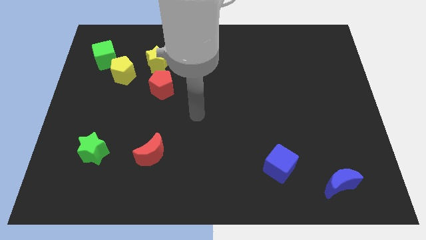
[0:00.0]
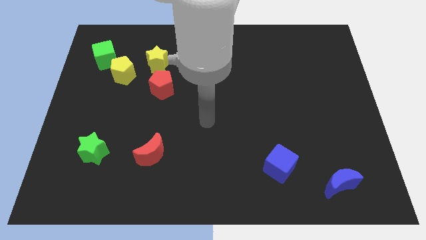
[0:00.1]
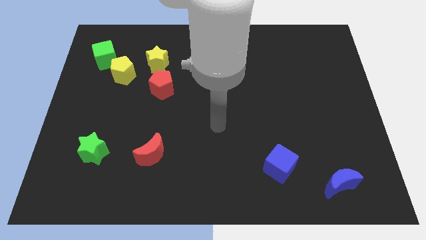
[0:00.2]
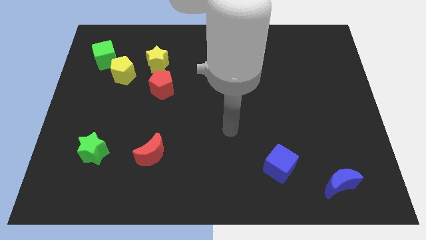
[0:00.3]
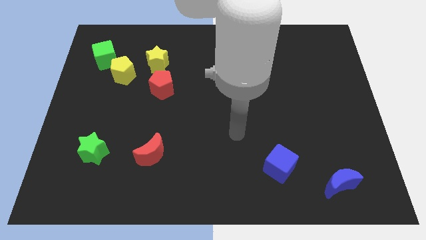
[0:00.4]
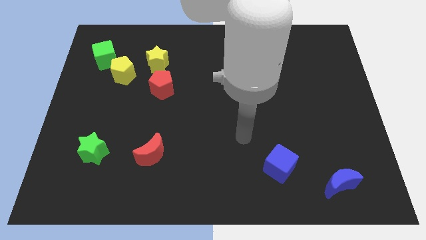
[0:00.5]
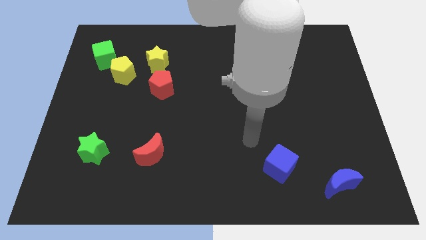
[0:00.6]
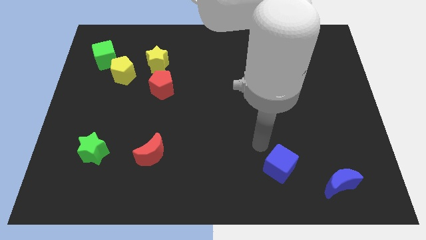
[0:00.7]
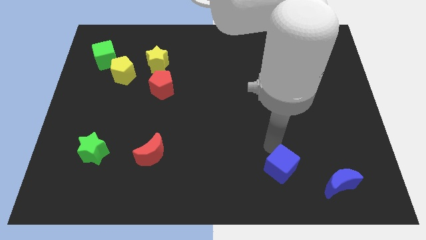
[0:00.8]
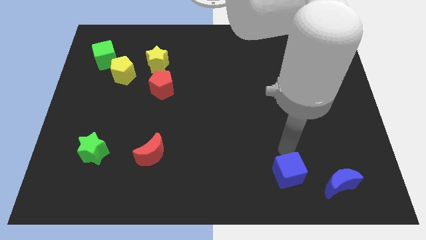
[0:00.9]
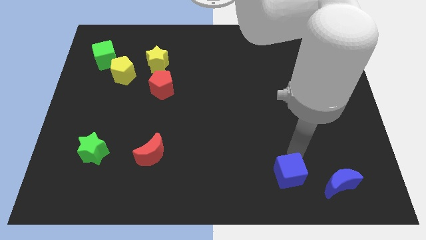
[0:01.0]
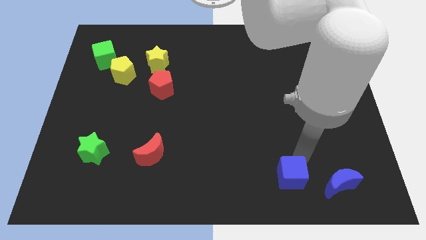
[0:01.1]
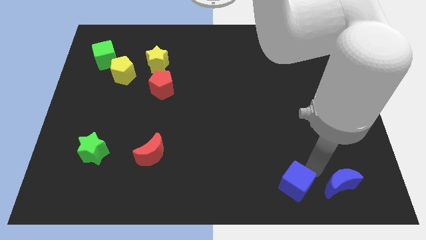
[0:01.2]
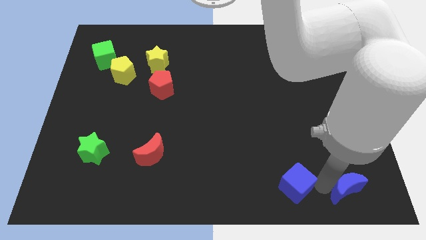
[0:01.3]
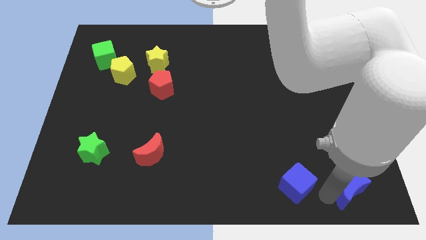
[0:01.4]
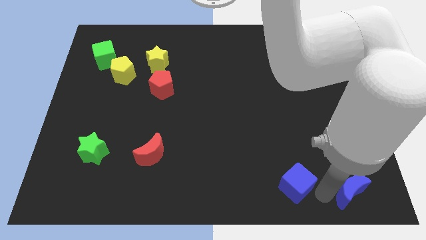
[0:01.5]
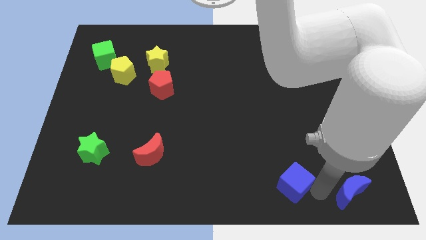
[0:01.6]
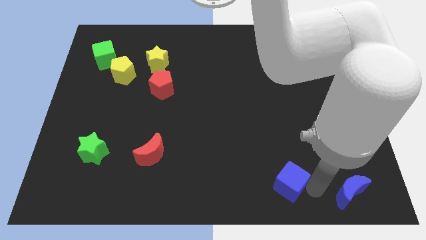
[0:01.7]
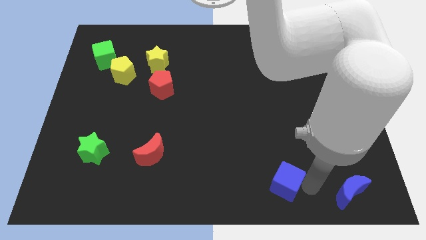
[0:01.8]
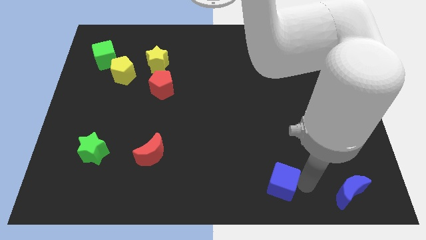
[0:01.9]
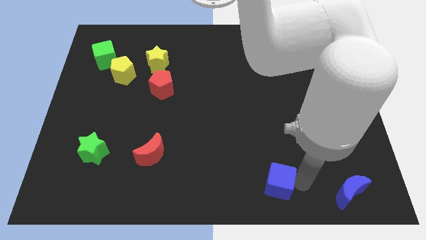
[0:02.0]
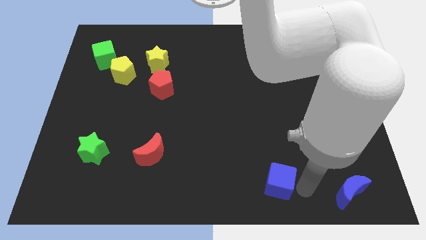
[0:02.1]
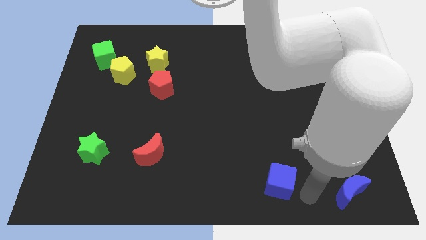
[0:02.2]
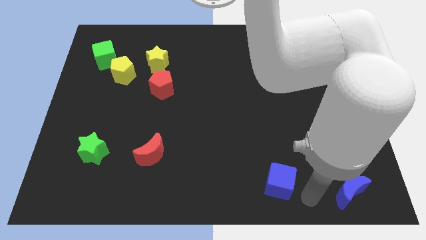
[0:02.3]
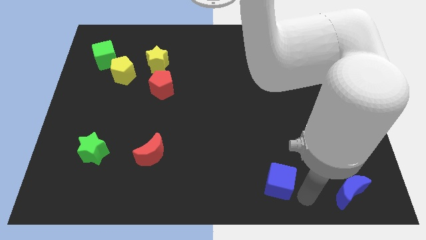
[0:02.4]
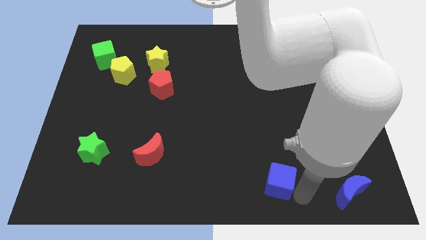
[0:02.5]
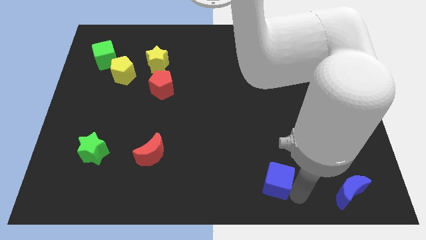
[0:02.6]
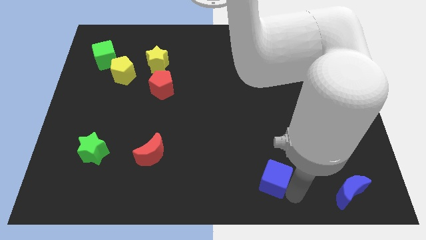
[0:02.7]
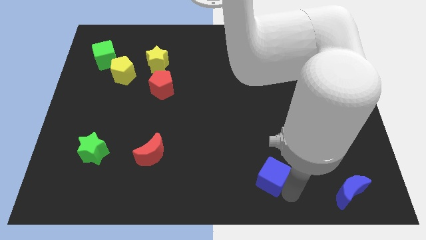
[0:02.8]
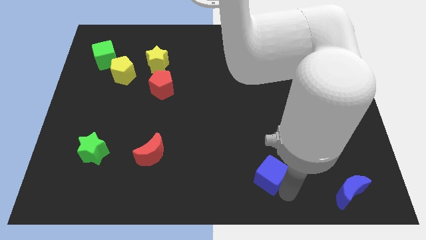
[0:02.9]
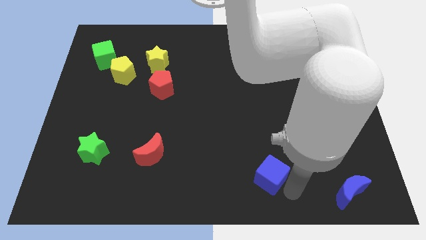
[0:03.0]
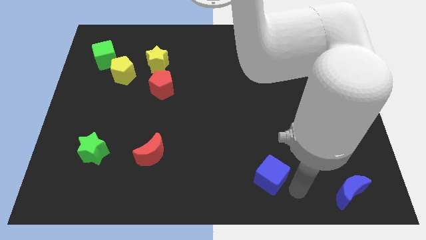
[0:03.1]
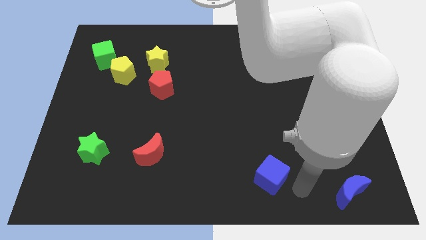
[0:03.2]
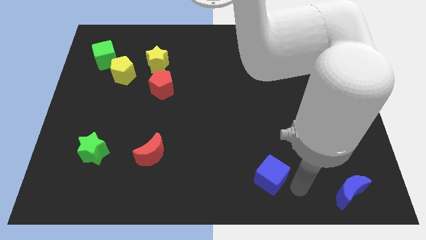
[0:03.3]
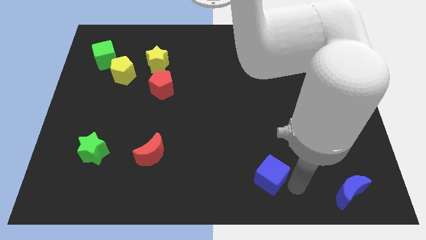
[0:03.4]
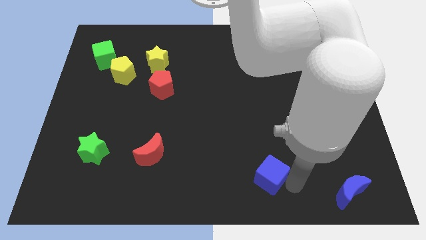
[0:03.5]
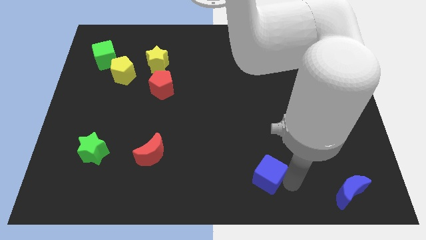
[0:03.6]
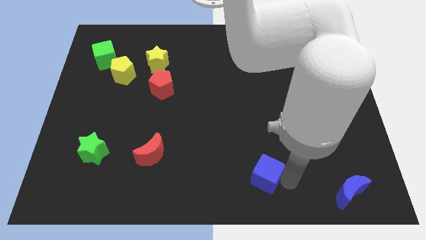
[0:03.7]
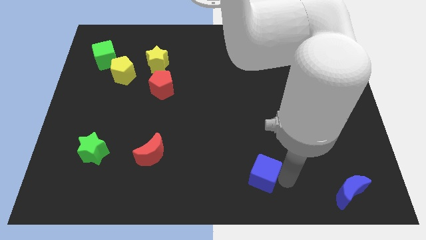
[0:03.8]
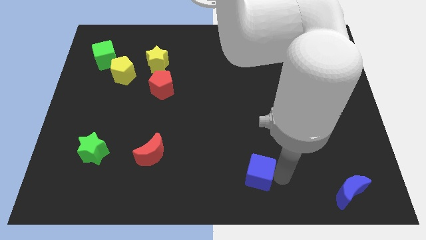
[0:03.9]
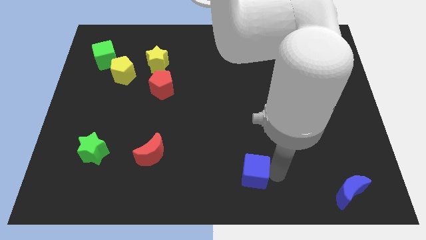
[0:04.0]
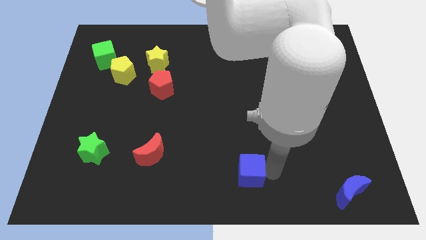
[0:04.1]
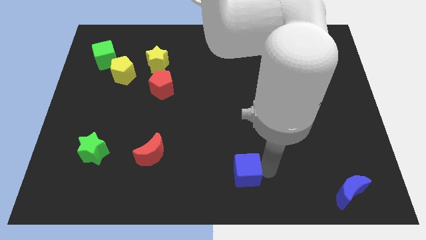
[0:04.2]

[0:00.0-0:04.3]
push the blue cube to the left a little bit

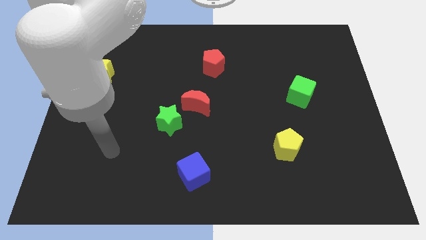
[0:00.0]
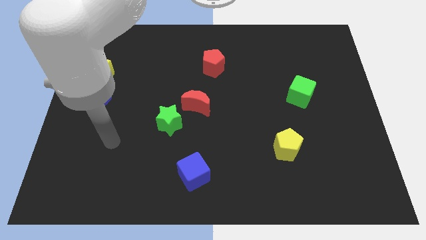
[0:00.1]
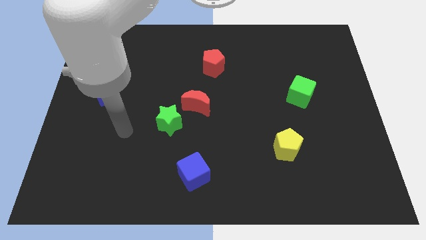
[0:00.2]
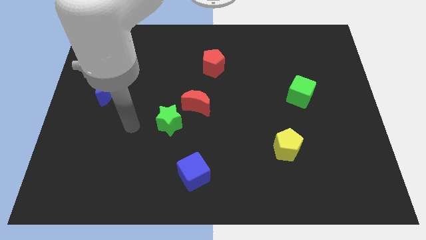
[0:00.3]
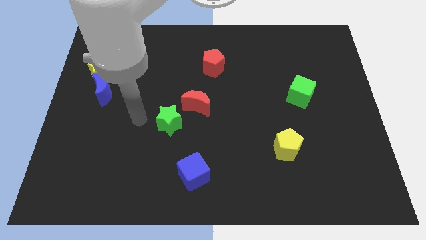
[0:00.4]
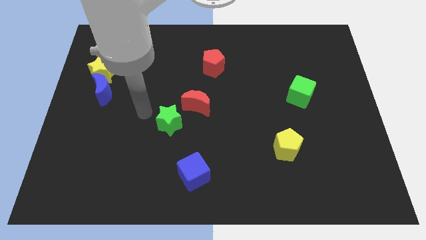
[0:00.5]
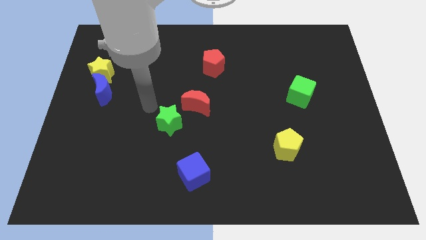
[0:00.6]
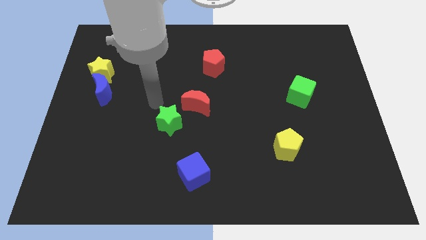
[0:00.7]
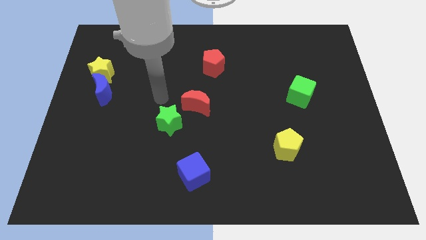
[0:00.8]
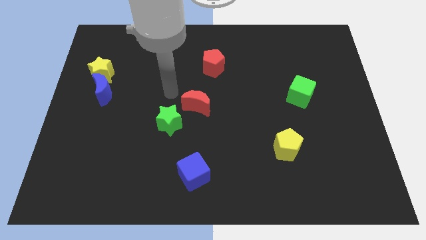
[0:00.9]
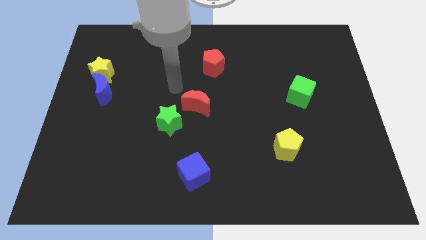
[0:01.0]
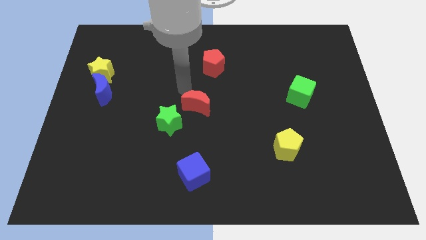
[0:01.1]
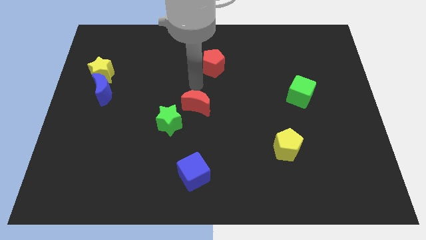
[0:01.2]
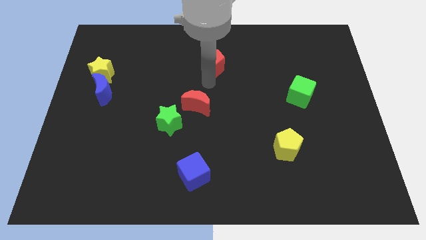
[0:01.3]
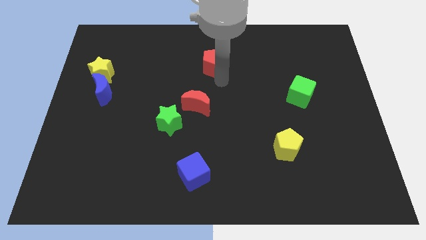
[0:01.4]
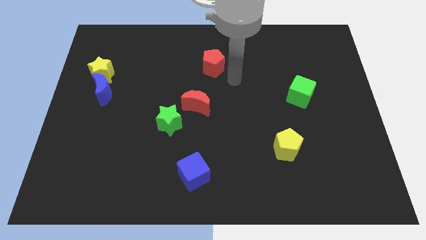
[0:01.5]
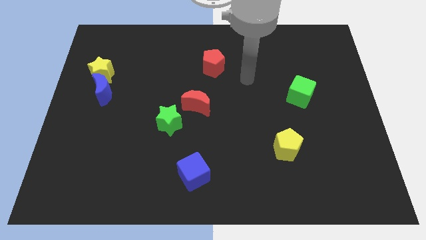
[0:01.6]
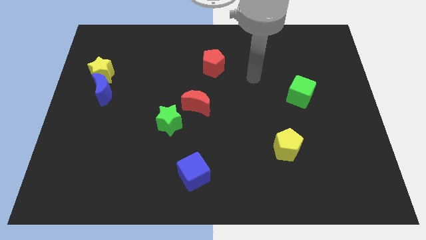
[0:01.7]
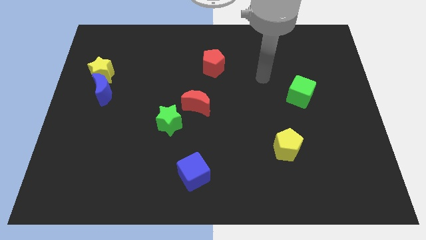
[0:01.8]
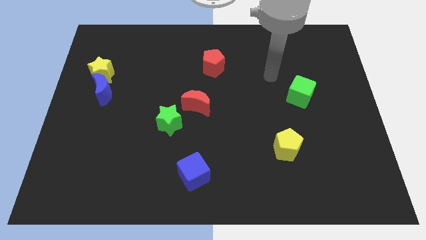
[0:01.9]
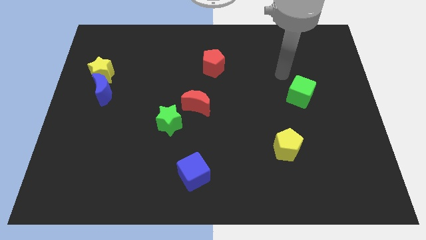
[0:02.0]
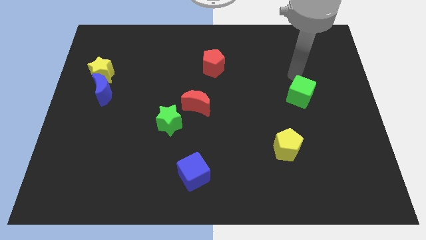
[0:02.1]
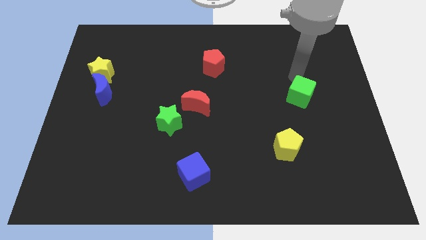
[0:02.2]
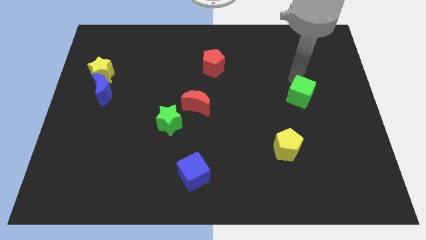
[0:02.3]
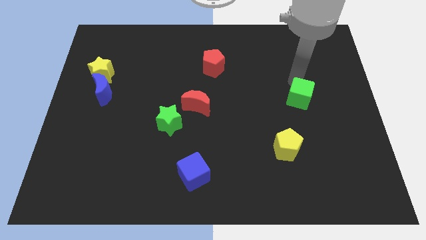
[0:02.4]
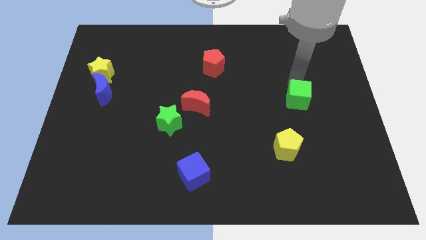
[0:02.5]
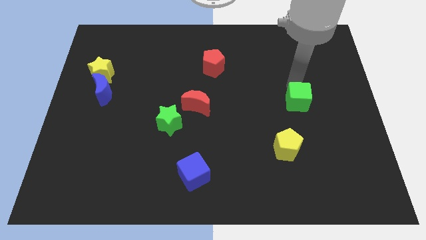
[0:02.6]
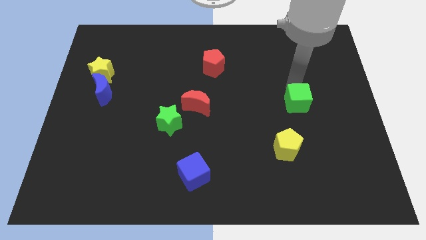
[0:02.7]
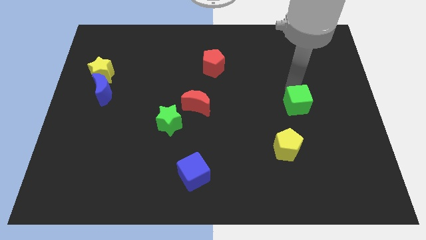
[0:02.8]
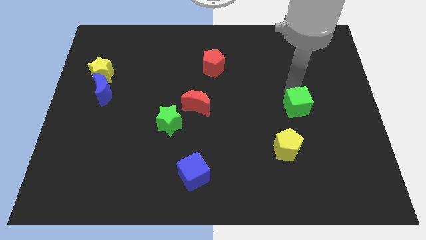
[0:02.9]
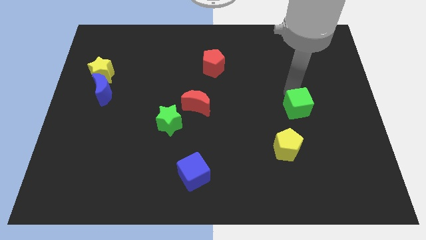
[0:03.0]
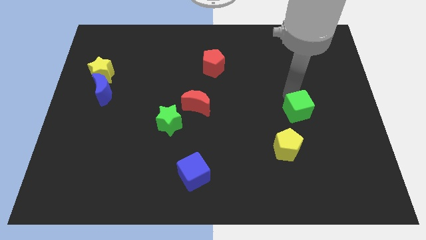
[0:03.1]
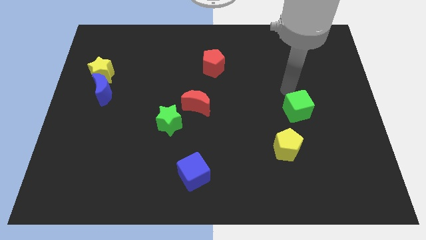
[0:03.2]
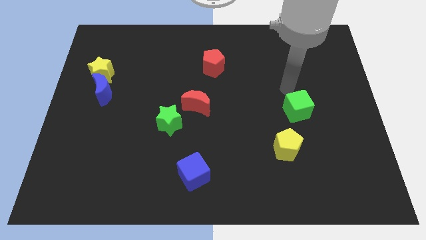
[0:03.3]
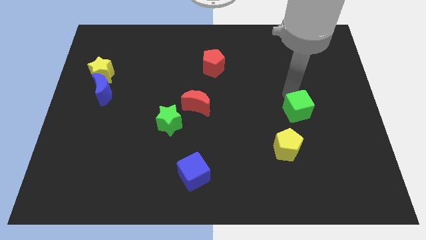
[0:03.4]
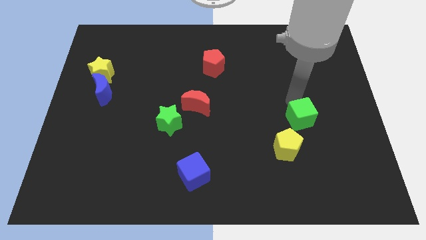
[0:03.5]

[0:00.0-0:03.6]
move the green cube downwards a little bit

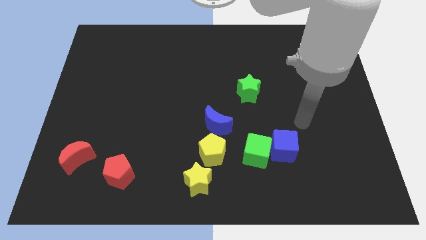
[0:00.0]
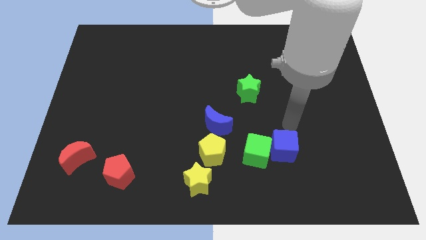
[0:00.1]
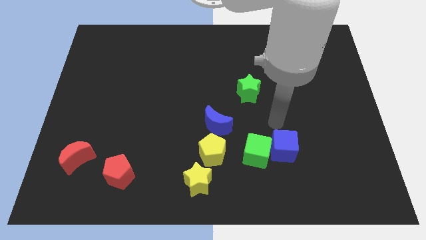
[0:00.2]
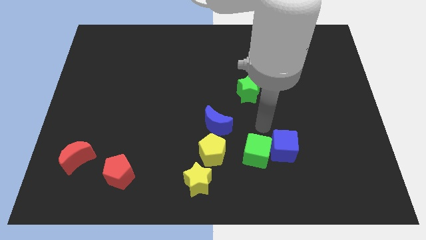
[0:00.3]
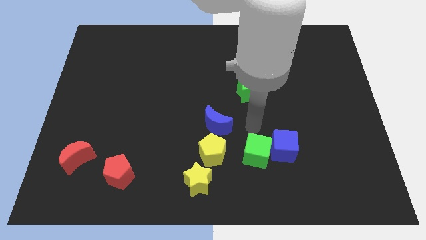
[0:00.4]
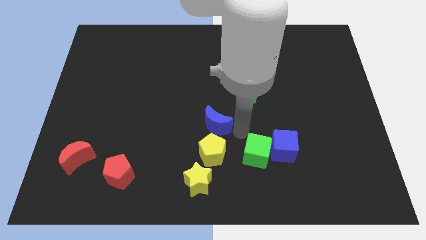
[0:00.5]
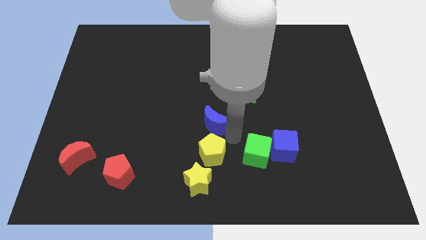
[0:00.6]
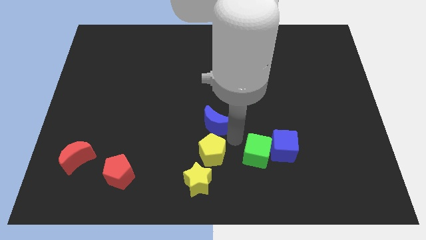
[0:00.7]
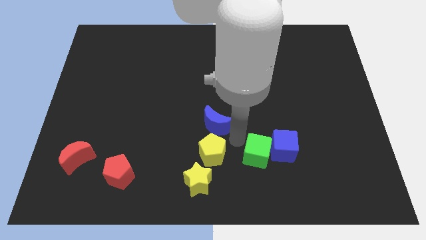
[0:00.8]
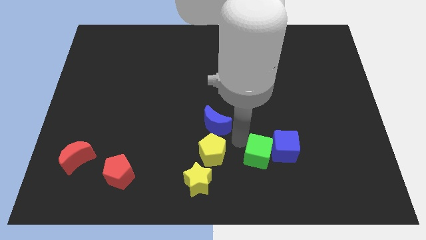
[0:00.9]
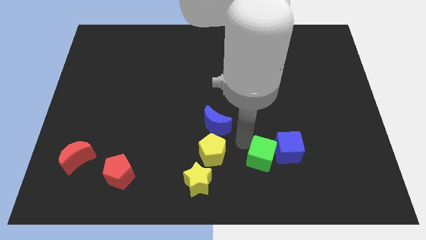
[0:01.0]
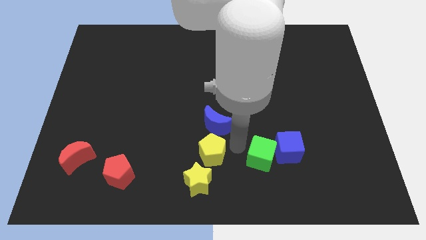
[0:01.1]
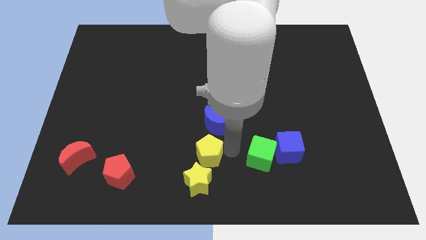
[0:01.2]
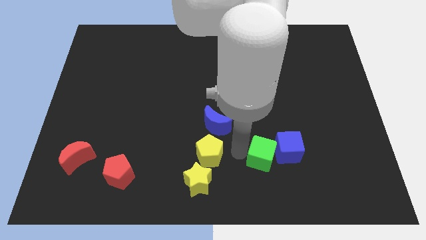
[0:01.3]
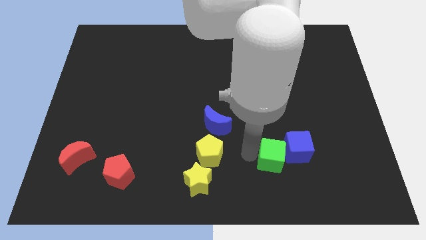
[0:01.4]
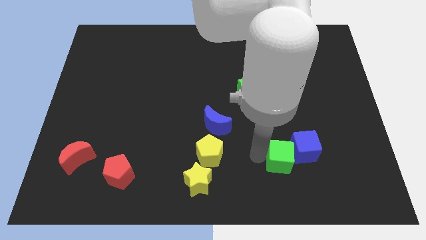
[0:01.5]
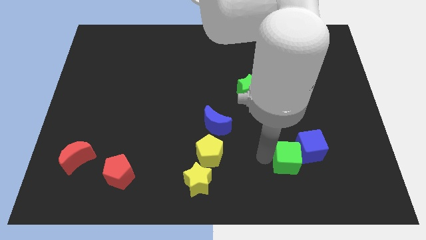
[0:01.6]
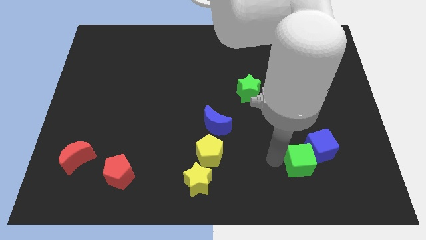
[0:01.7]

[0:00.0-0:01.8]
slightly push the green cube to the right
